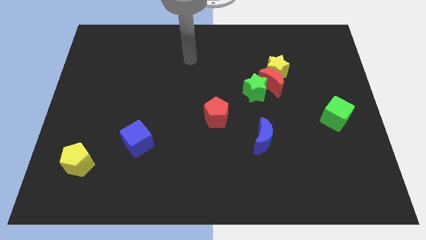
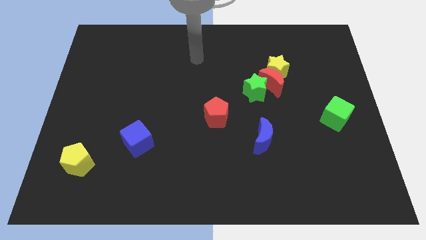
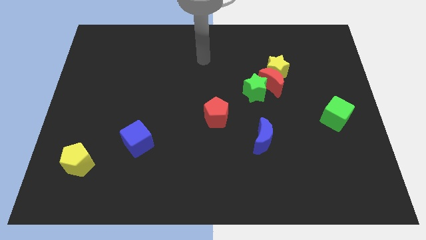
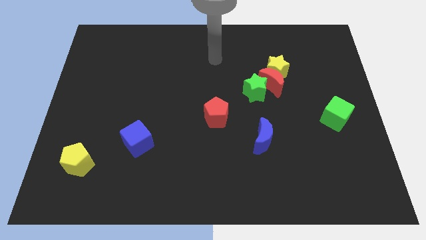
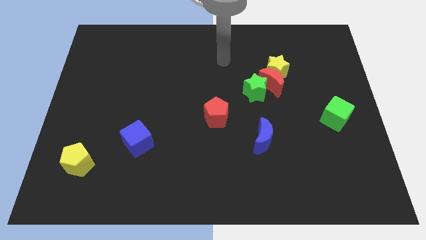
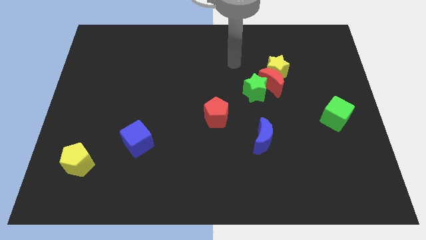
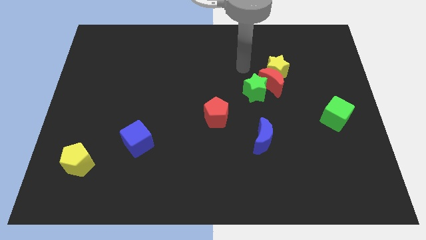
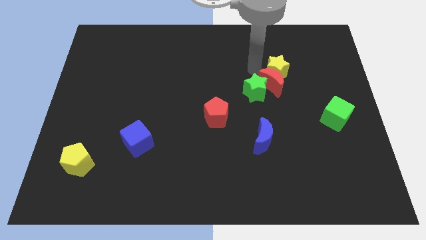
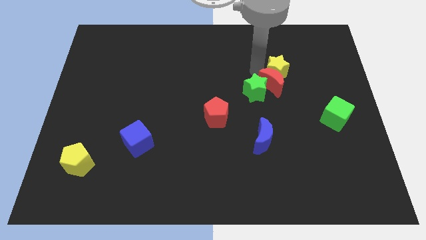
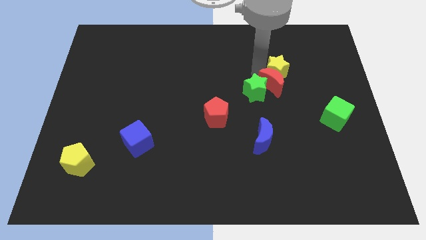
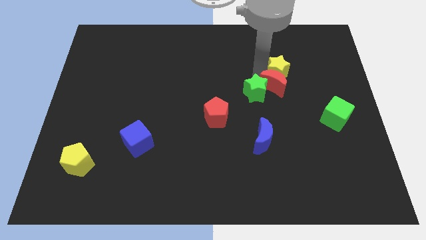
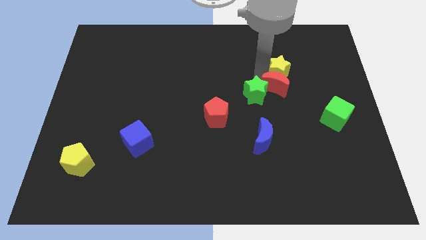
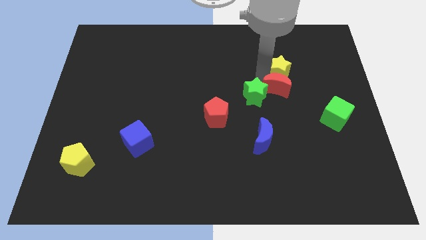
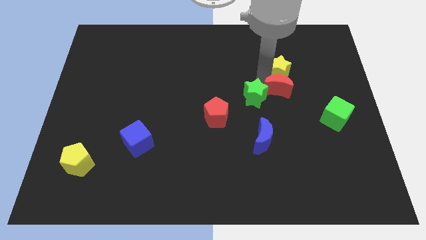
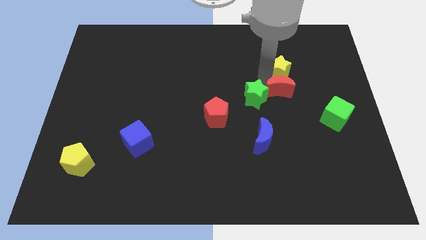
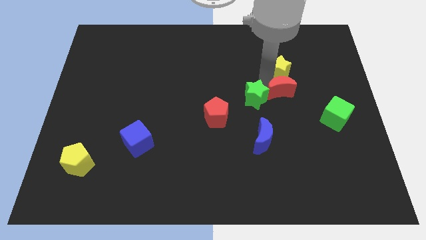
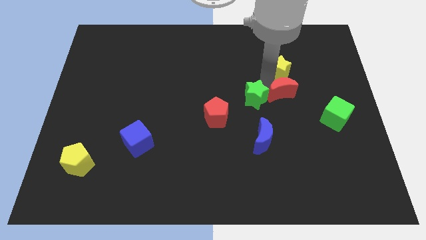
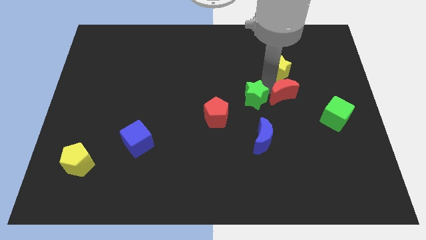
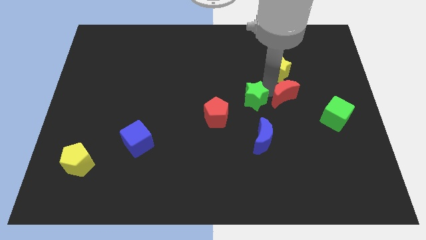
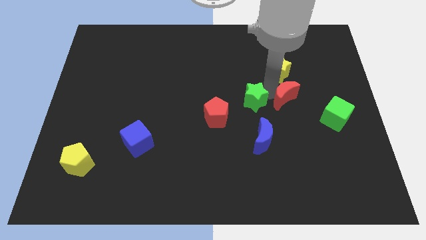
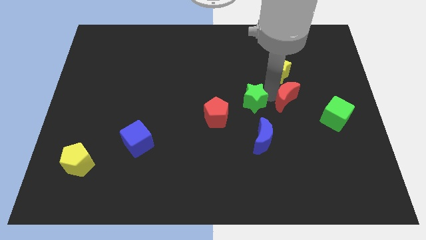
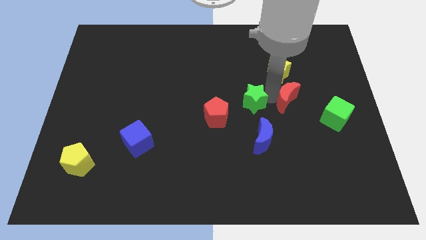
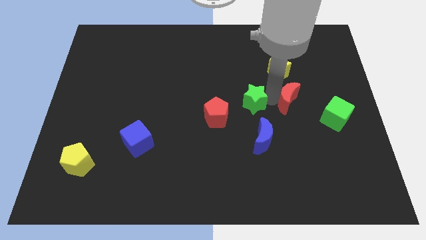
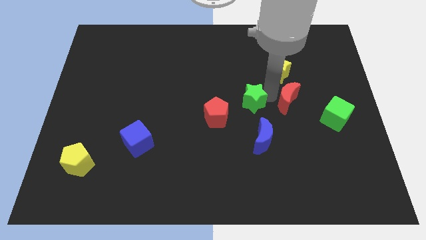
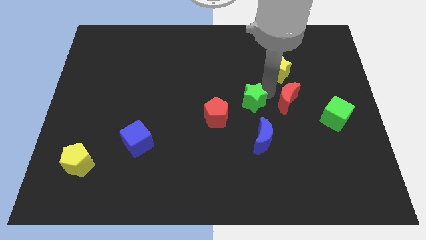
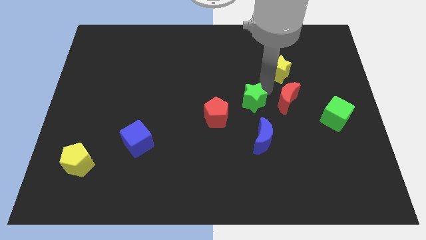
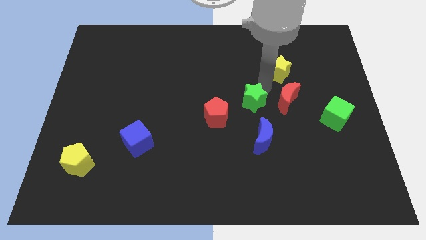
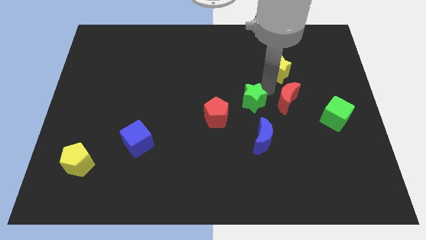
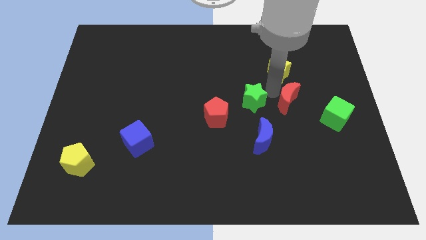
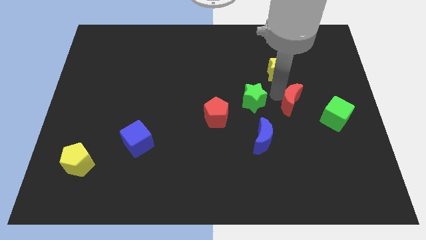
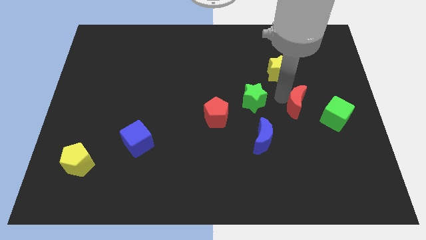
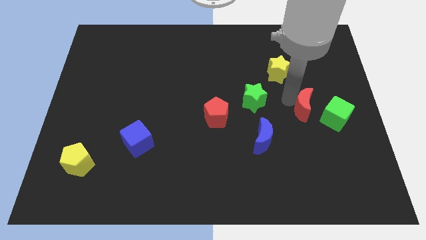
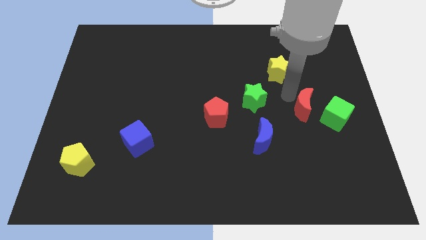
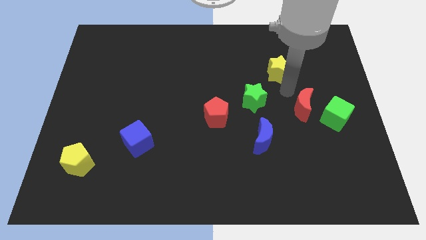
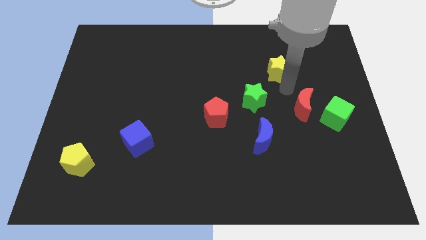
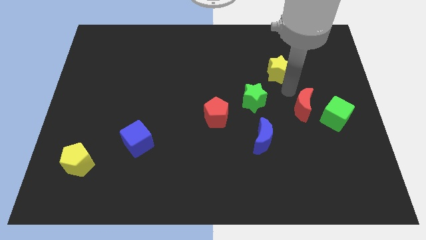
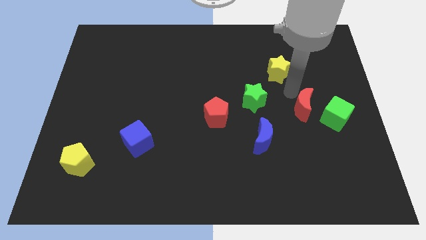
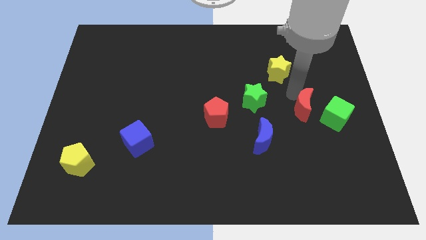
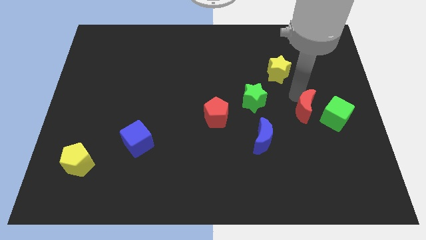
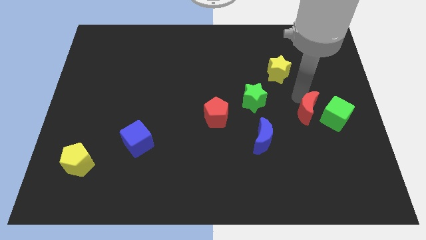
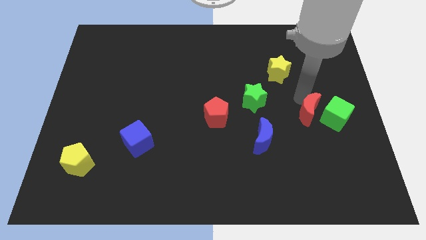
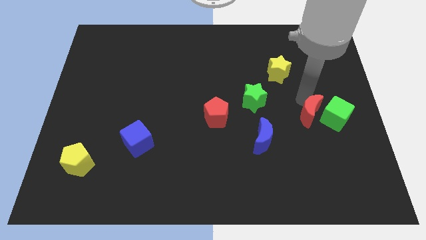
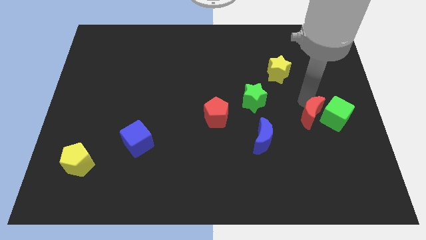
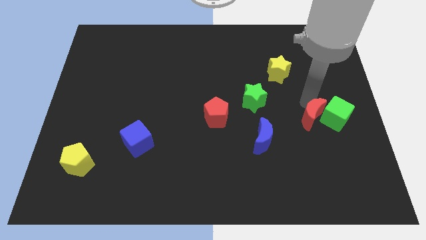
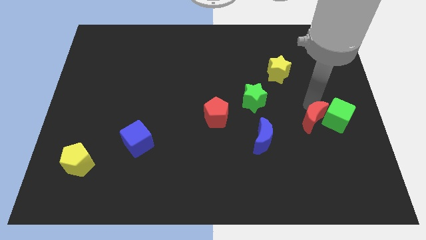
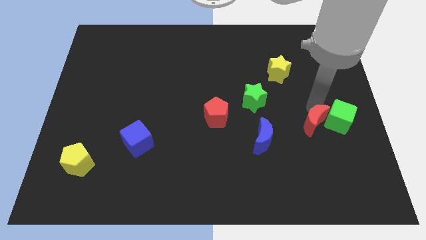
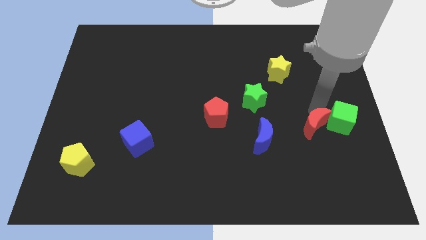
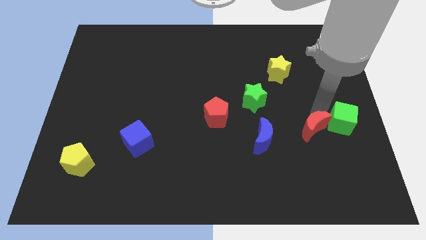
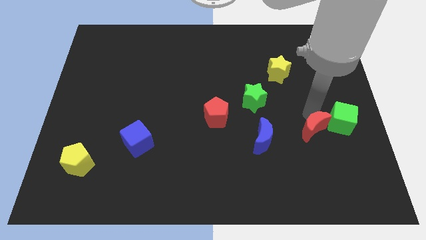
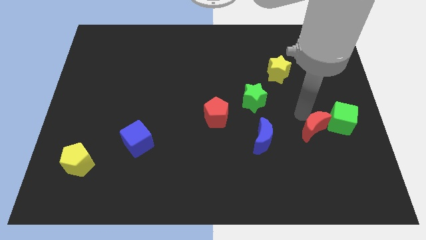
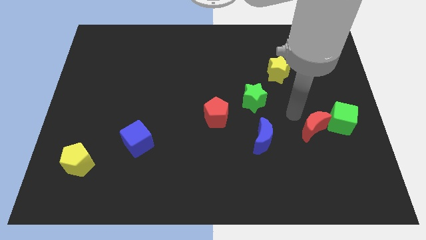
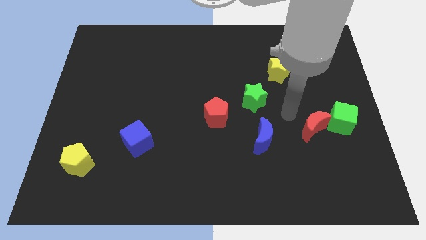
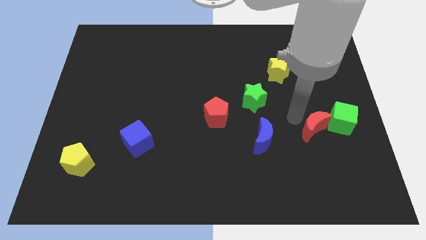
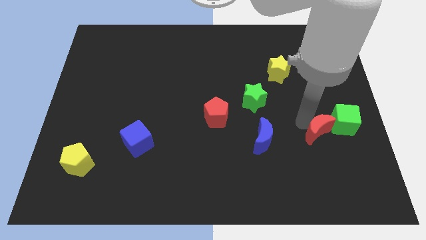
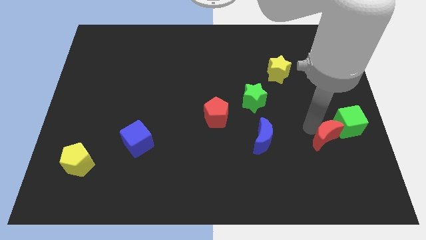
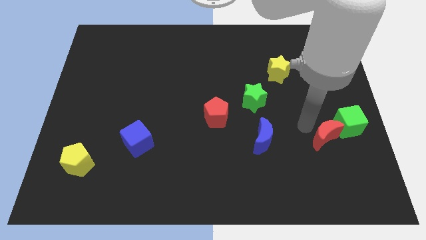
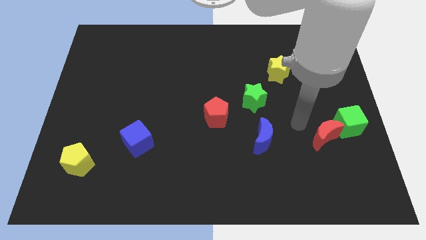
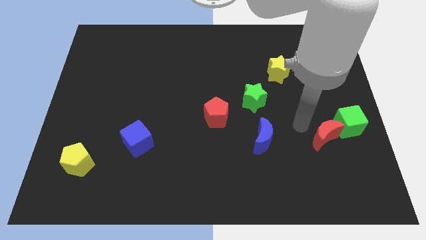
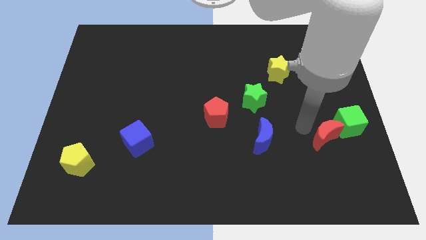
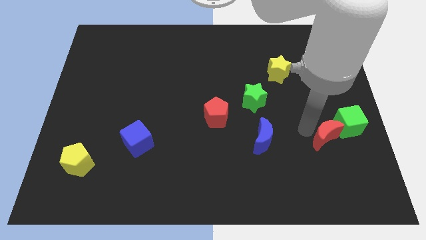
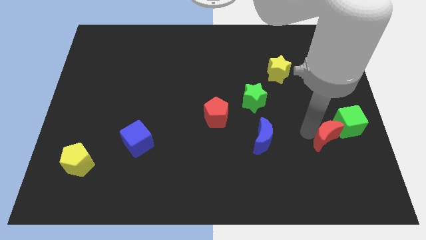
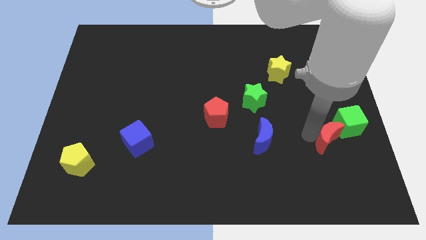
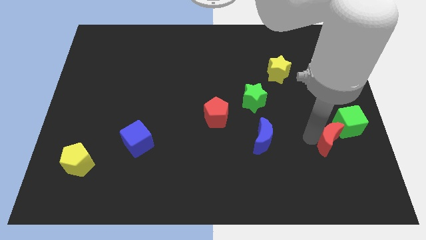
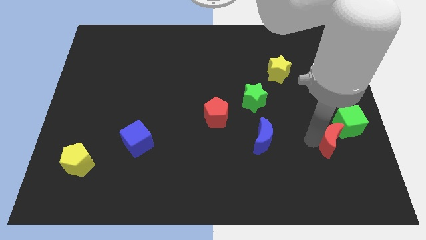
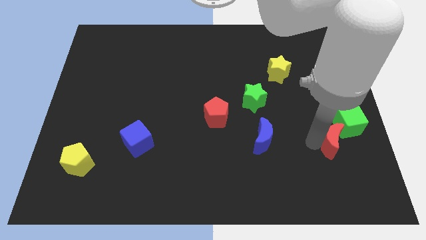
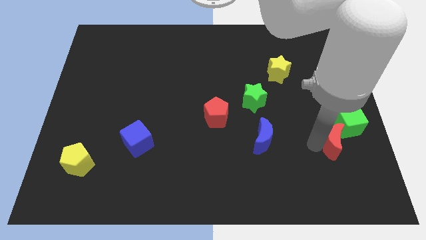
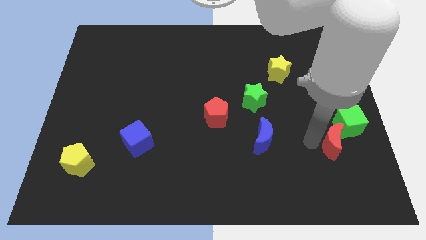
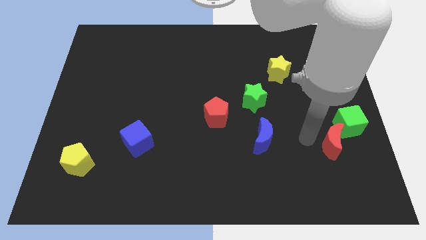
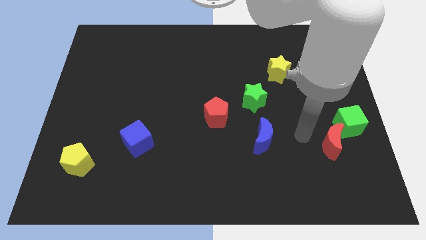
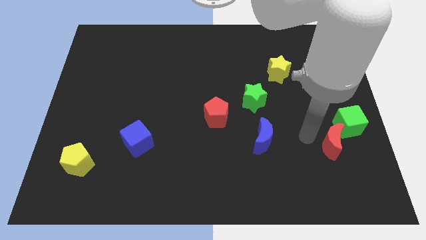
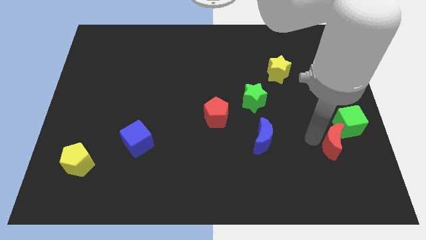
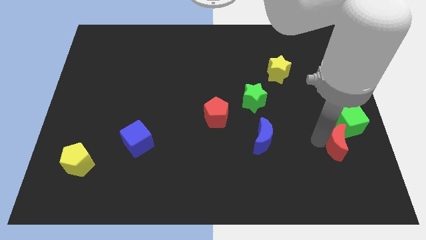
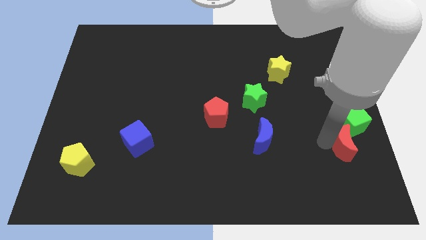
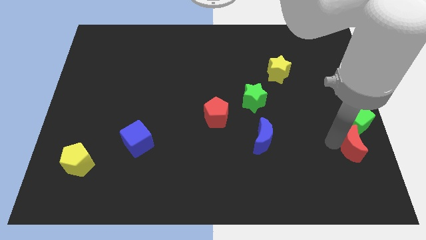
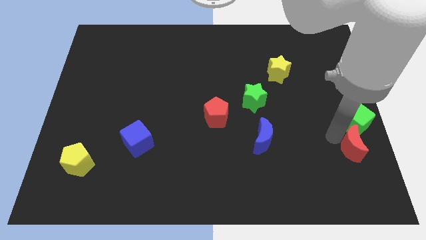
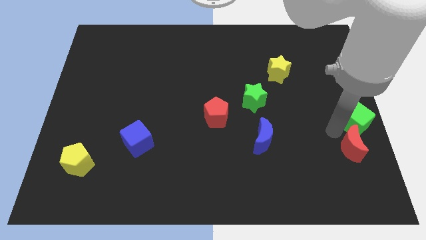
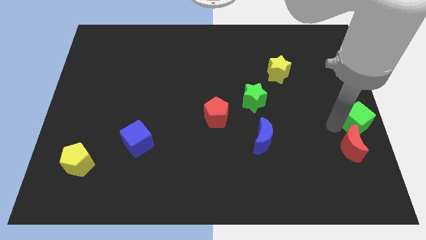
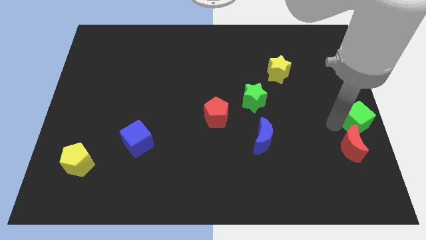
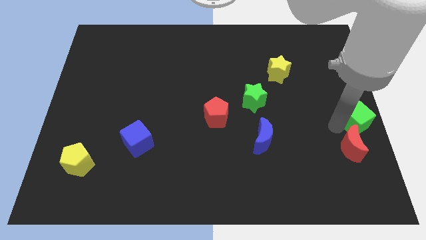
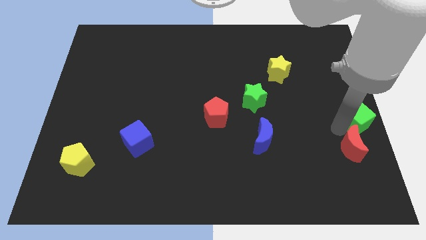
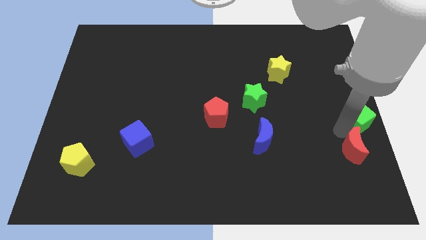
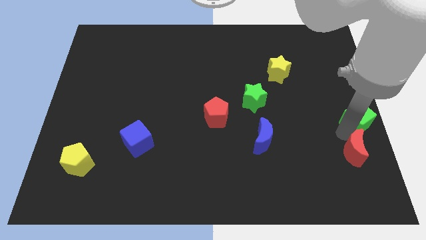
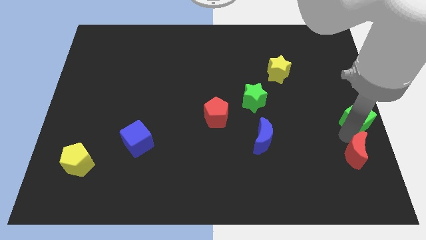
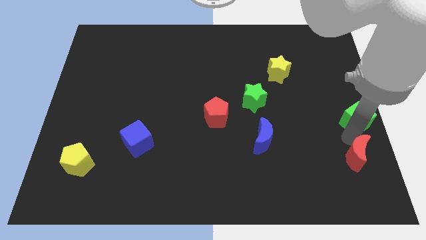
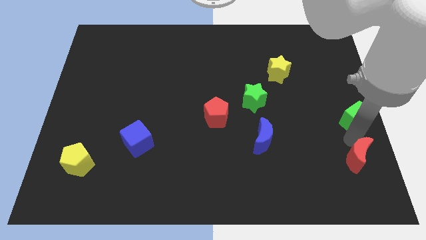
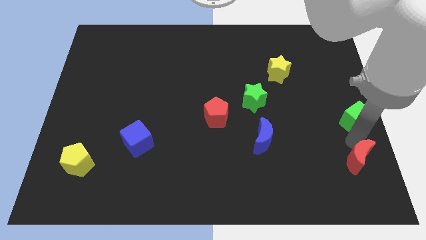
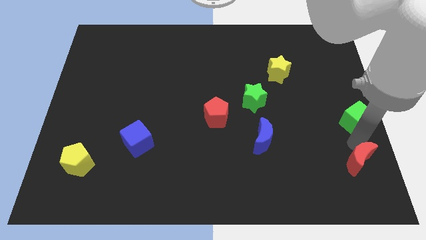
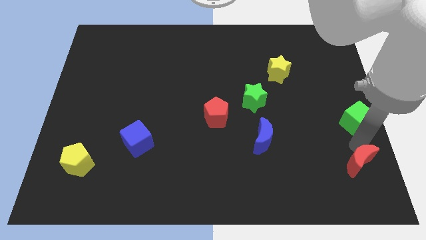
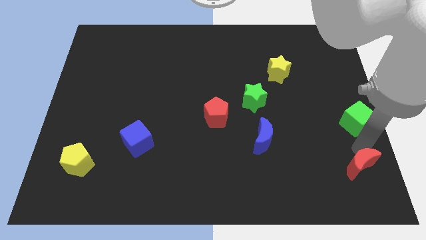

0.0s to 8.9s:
move the red moon to the bottom right of the board
